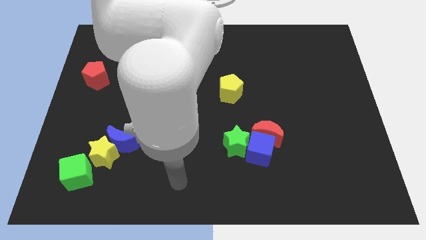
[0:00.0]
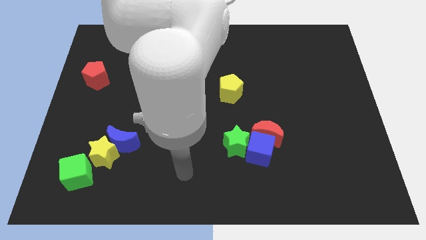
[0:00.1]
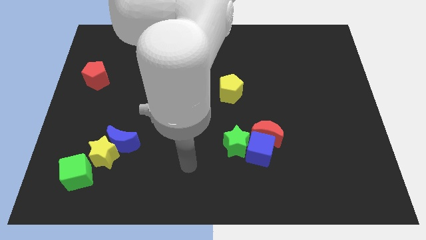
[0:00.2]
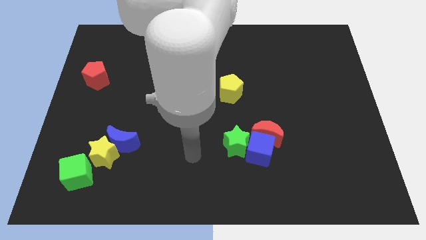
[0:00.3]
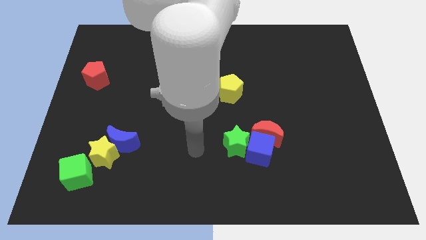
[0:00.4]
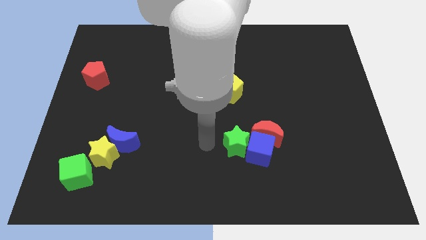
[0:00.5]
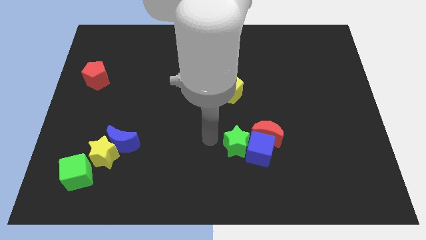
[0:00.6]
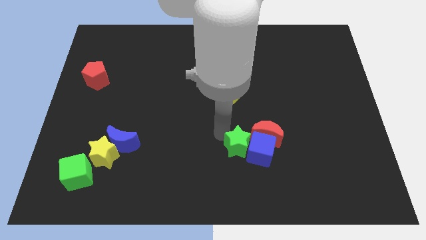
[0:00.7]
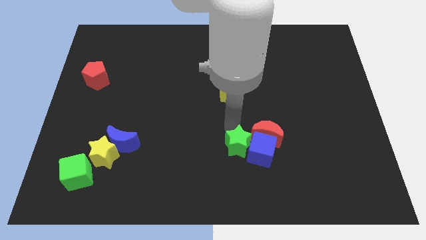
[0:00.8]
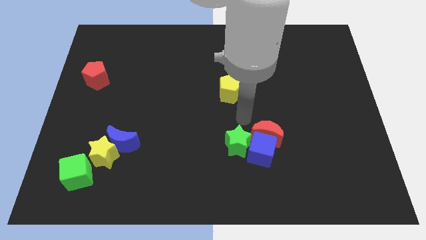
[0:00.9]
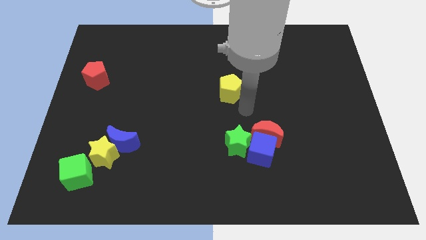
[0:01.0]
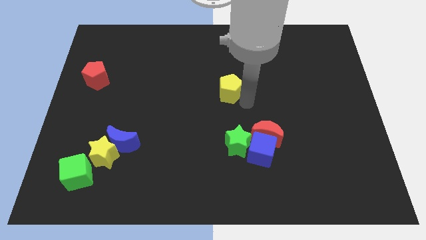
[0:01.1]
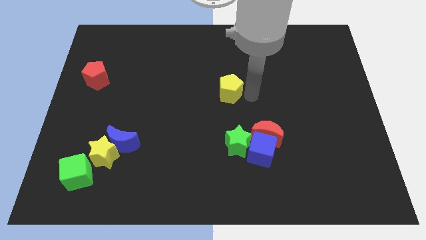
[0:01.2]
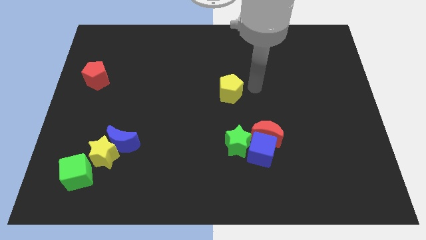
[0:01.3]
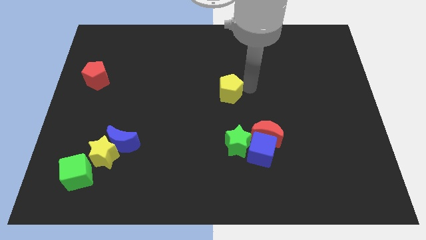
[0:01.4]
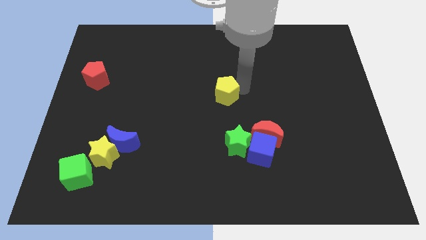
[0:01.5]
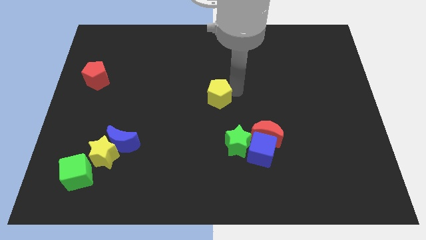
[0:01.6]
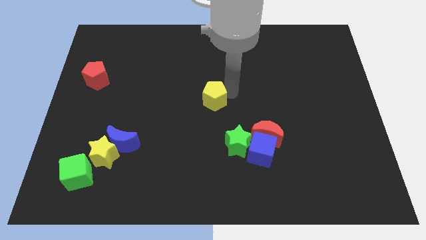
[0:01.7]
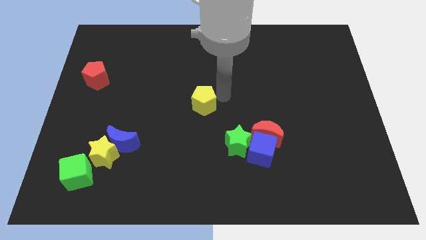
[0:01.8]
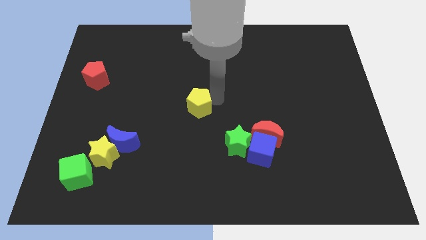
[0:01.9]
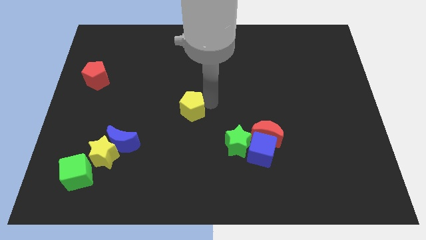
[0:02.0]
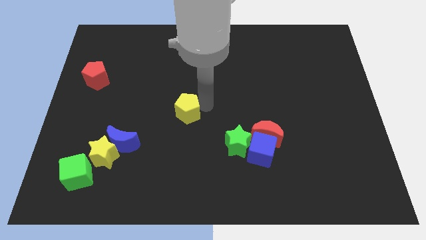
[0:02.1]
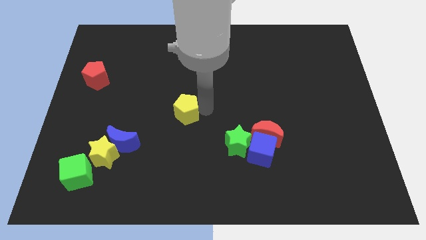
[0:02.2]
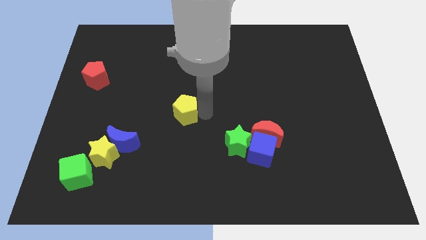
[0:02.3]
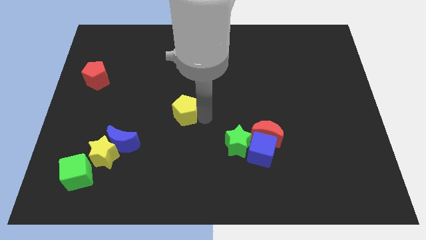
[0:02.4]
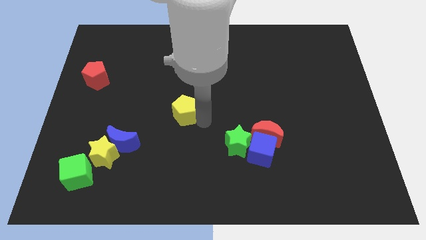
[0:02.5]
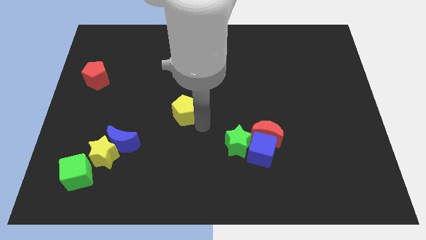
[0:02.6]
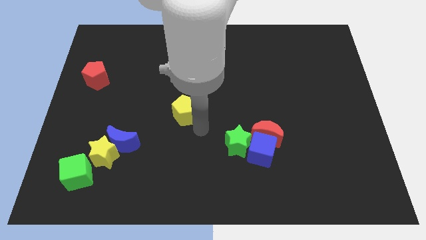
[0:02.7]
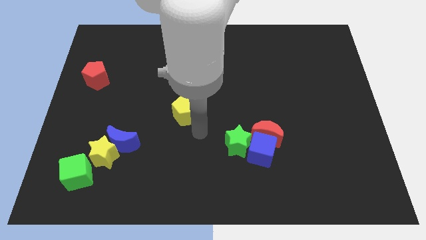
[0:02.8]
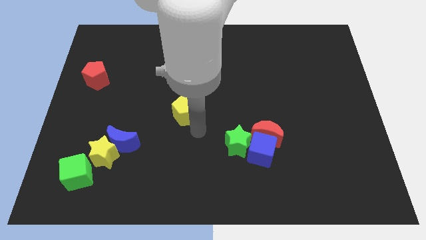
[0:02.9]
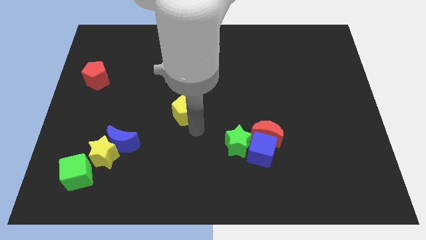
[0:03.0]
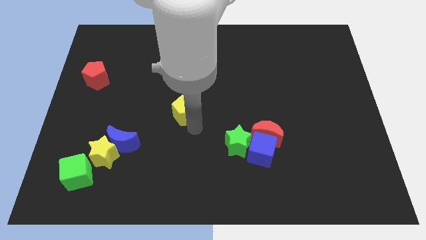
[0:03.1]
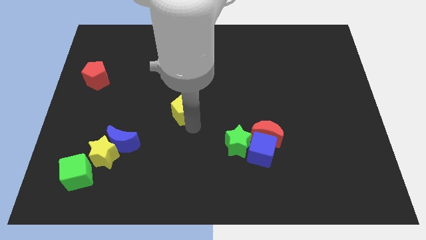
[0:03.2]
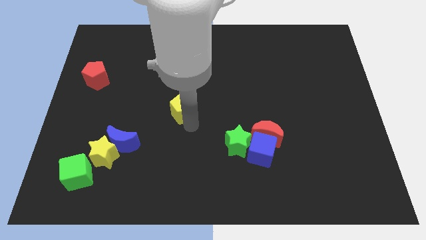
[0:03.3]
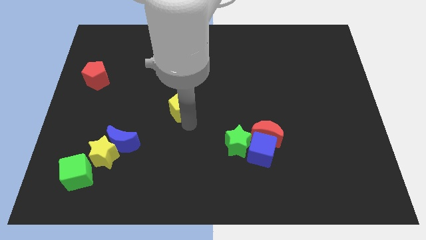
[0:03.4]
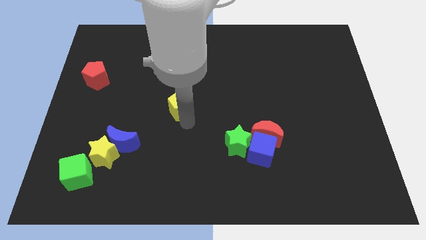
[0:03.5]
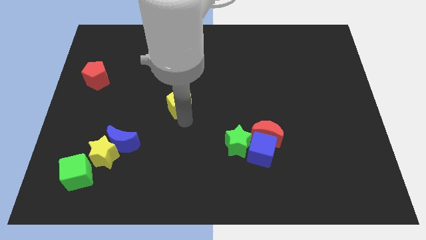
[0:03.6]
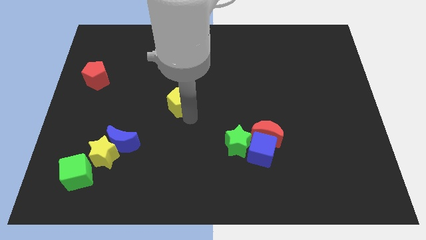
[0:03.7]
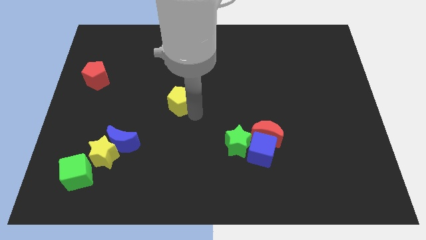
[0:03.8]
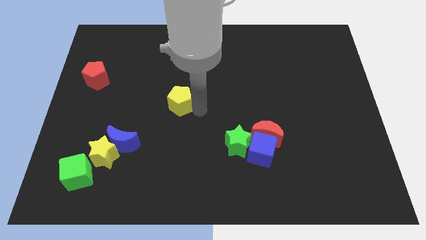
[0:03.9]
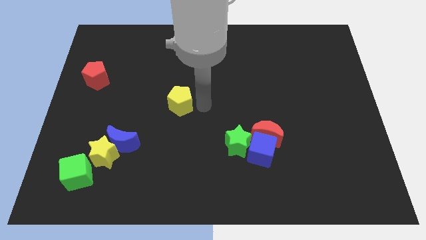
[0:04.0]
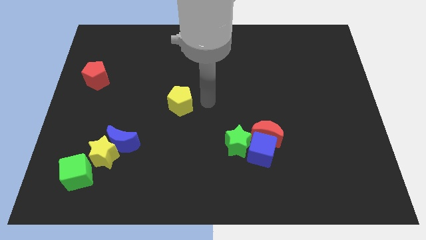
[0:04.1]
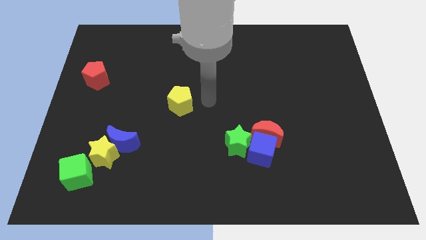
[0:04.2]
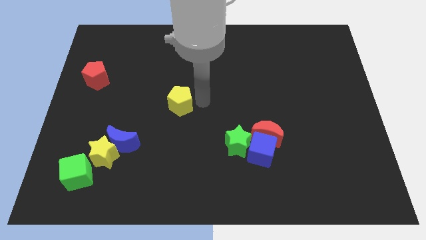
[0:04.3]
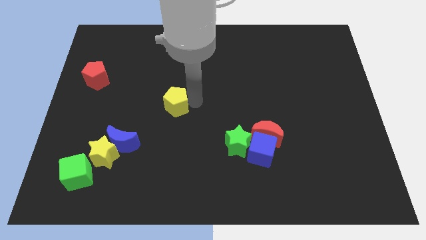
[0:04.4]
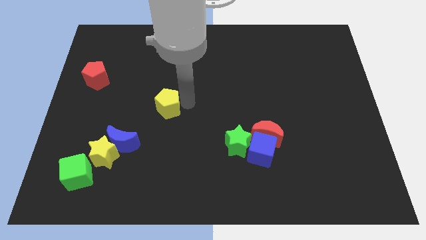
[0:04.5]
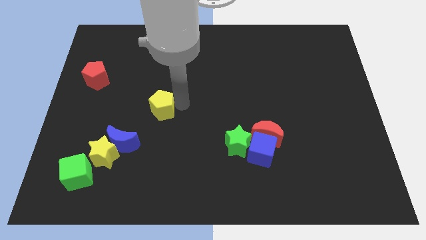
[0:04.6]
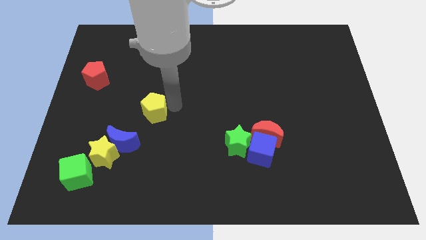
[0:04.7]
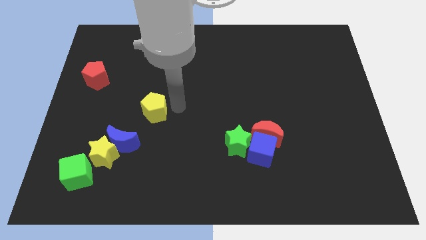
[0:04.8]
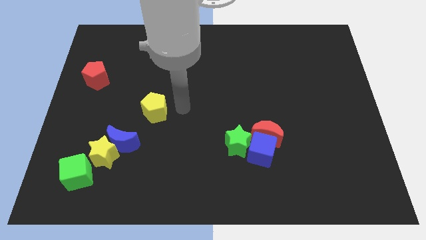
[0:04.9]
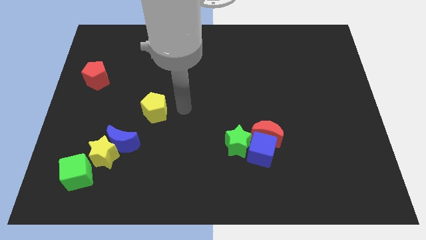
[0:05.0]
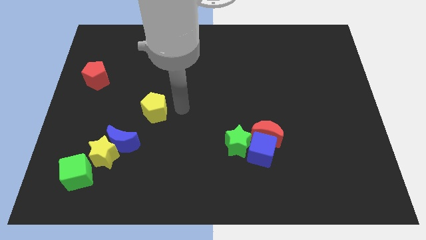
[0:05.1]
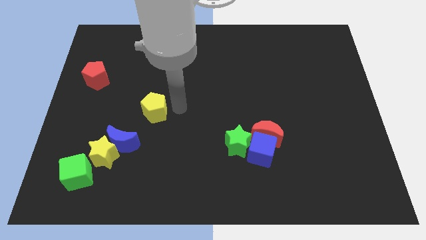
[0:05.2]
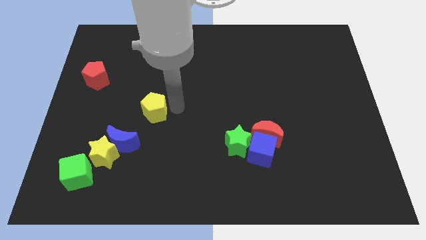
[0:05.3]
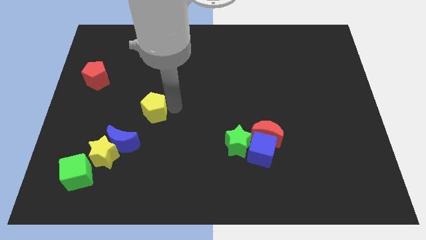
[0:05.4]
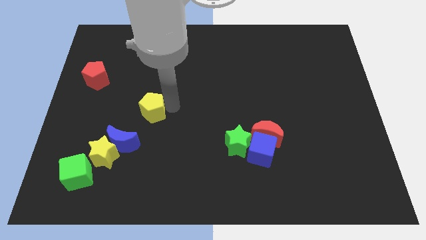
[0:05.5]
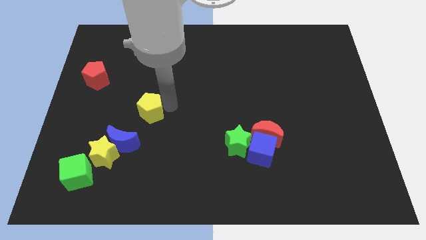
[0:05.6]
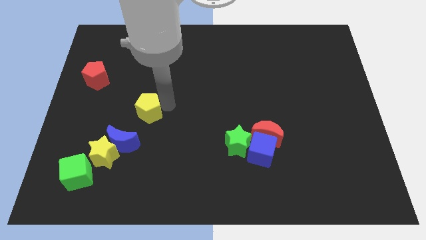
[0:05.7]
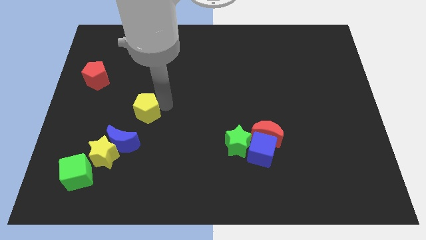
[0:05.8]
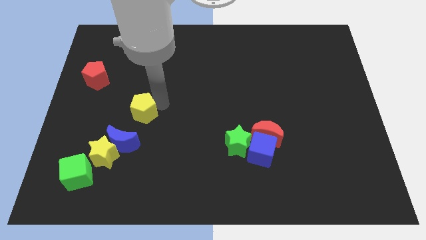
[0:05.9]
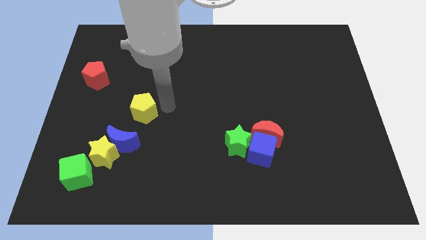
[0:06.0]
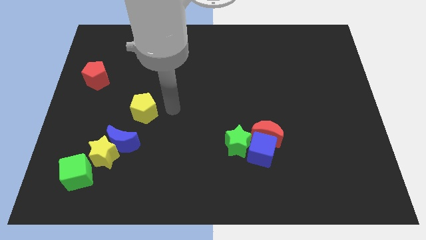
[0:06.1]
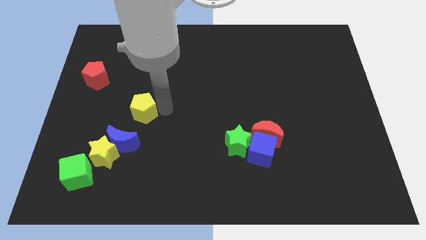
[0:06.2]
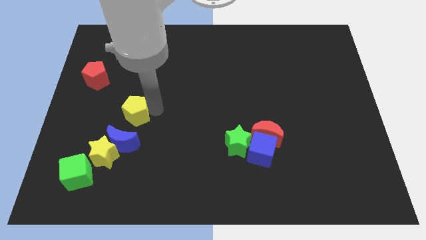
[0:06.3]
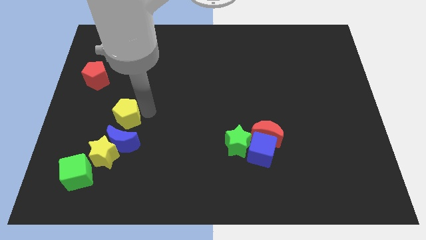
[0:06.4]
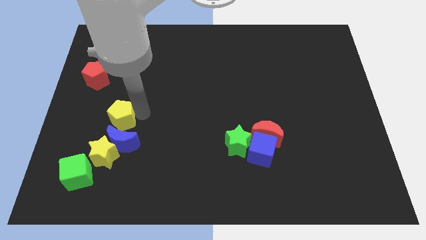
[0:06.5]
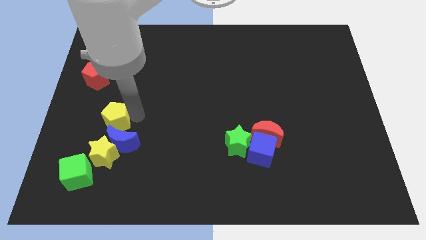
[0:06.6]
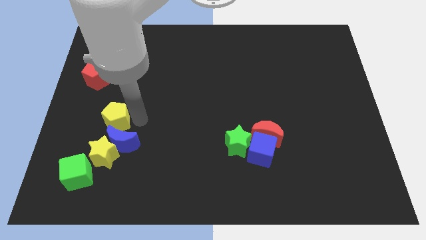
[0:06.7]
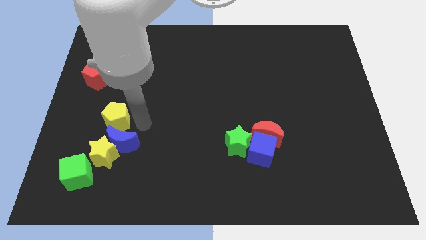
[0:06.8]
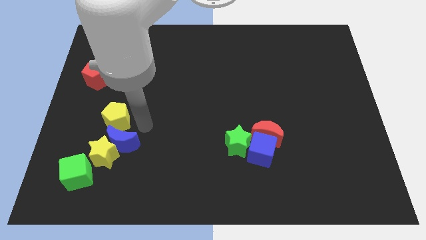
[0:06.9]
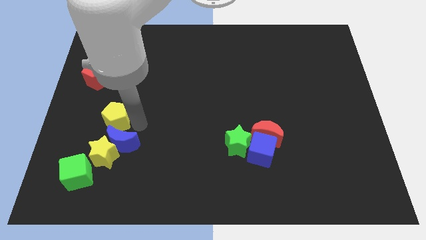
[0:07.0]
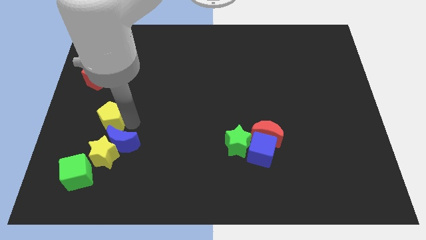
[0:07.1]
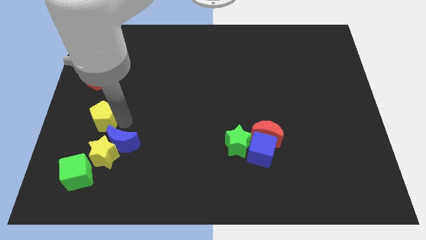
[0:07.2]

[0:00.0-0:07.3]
move the yellow pentagon below the red pentagon
